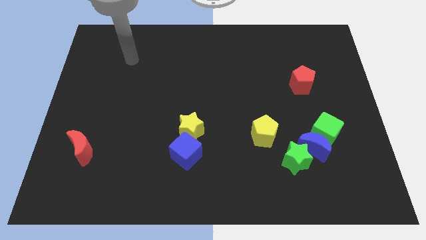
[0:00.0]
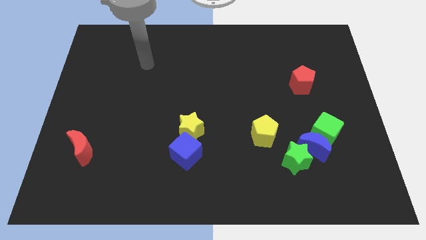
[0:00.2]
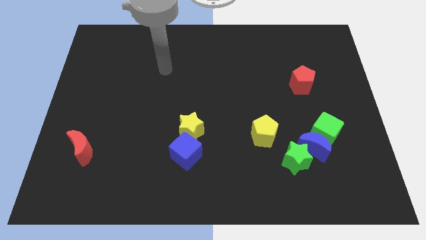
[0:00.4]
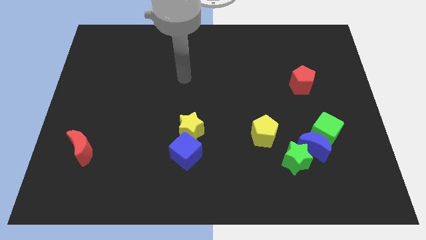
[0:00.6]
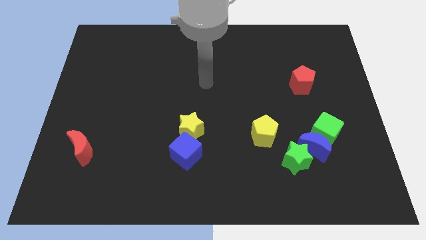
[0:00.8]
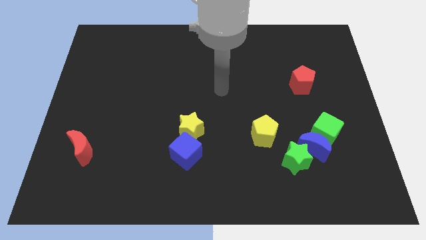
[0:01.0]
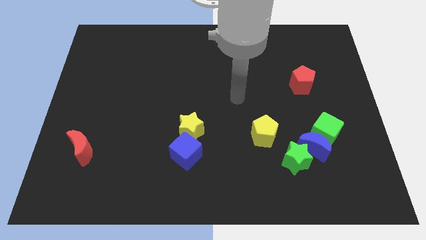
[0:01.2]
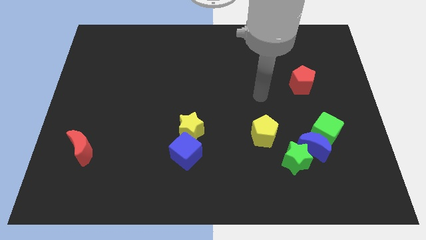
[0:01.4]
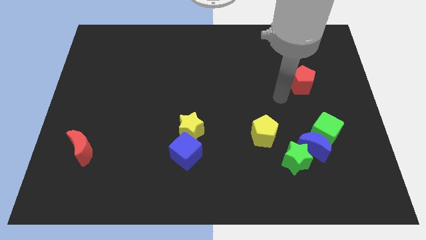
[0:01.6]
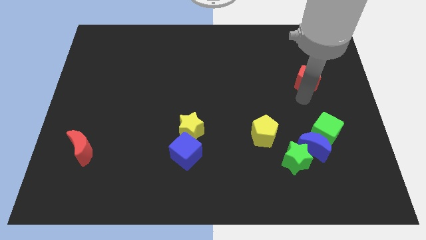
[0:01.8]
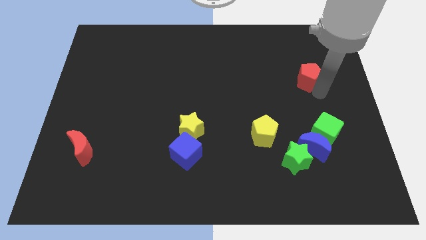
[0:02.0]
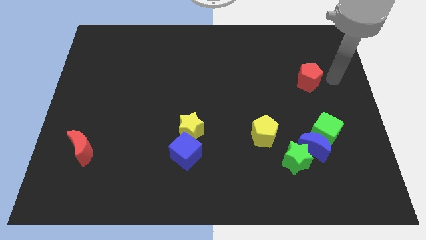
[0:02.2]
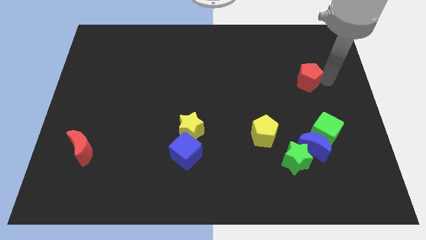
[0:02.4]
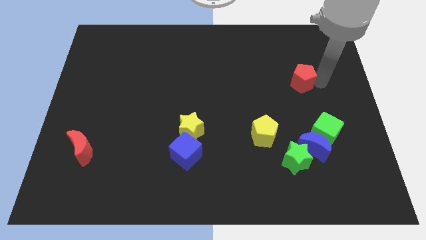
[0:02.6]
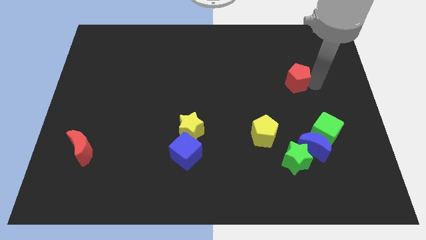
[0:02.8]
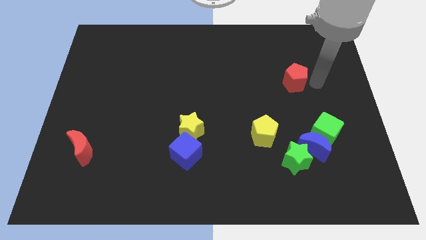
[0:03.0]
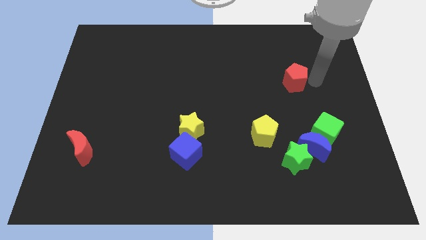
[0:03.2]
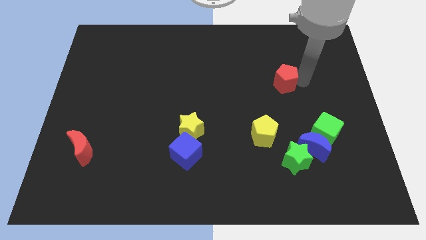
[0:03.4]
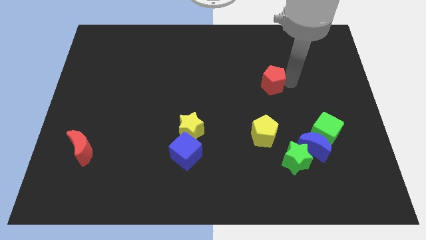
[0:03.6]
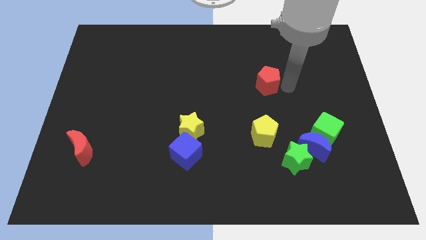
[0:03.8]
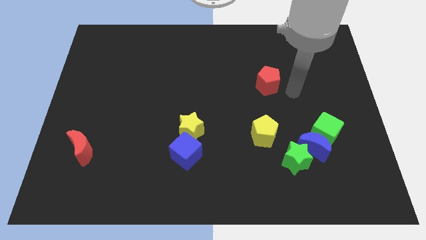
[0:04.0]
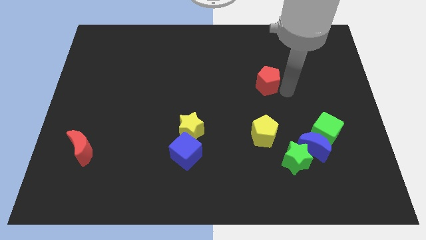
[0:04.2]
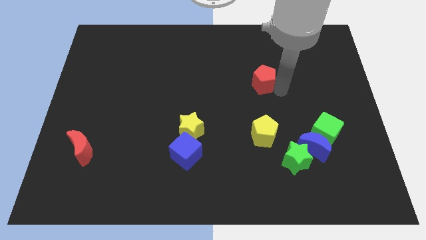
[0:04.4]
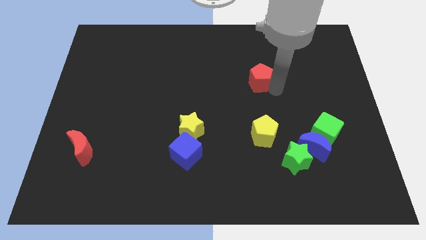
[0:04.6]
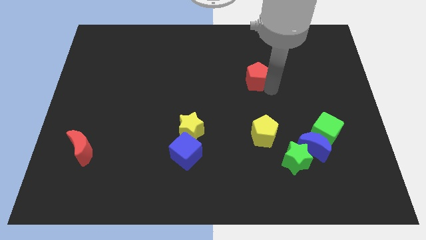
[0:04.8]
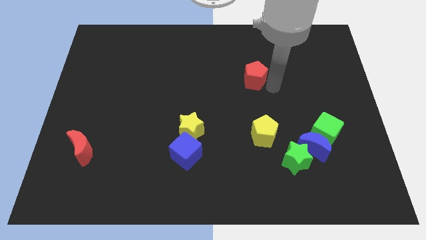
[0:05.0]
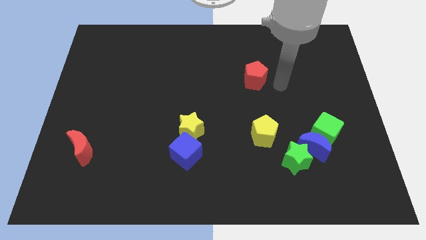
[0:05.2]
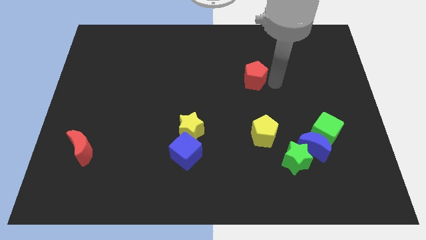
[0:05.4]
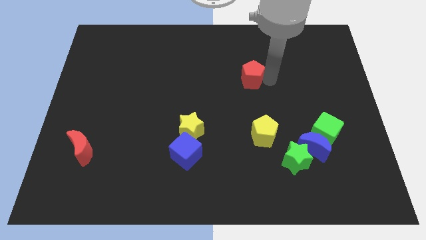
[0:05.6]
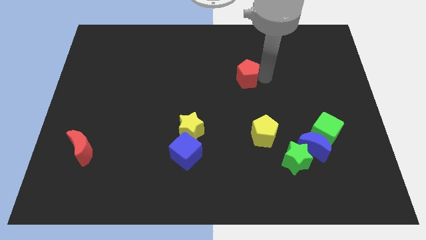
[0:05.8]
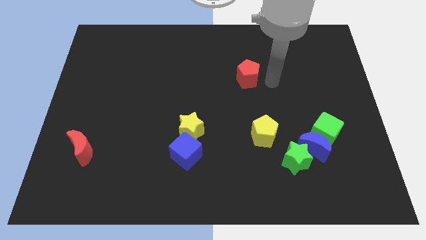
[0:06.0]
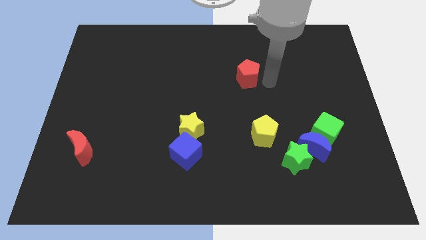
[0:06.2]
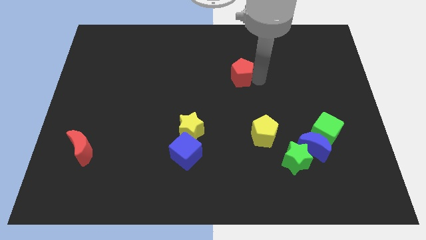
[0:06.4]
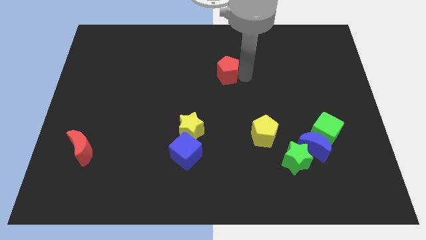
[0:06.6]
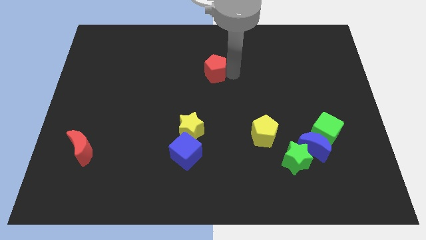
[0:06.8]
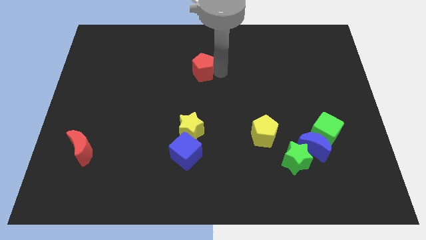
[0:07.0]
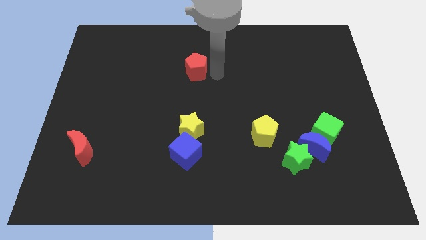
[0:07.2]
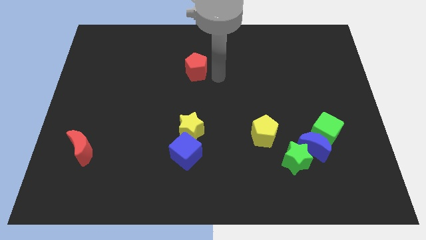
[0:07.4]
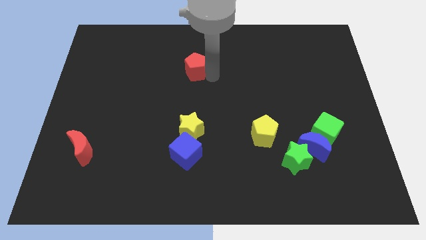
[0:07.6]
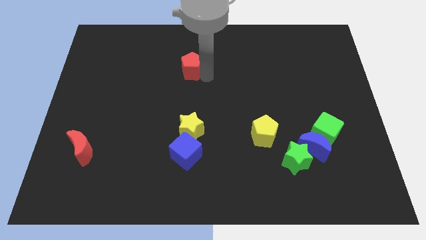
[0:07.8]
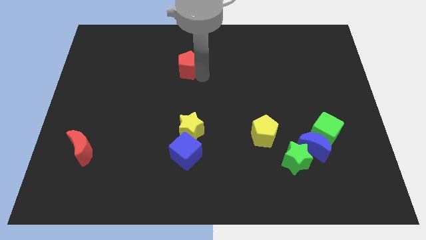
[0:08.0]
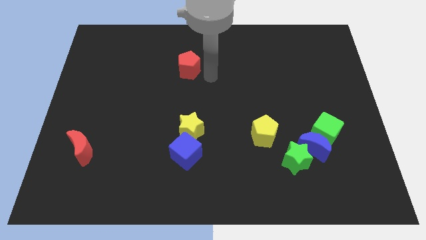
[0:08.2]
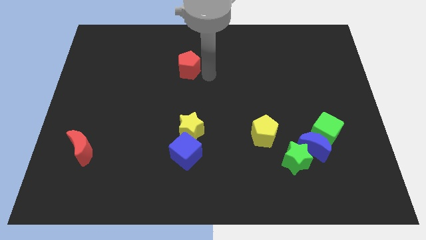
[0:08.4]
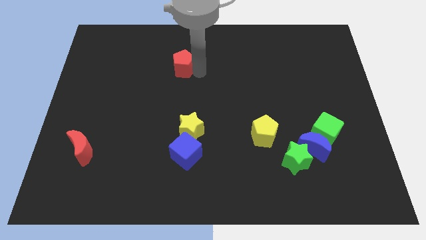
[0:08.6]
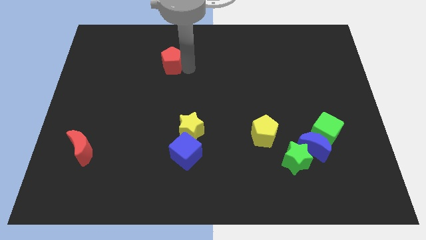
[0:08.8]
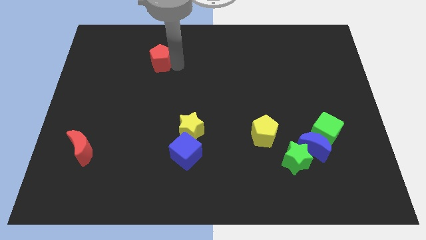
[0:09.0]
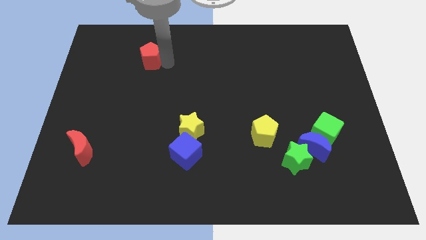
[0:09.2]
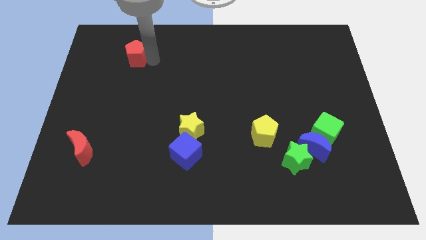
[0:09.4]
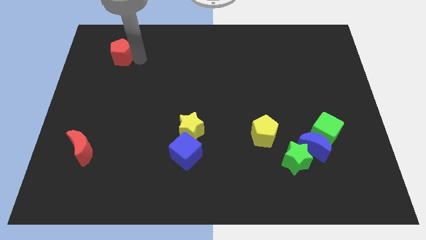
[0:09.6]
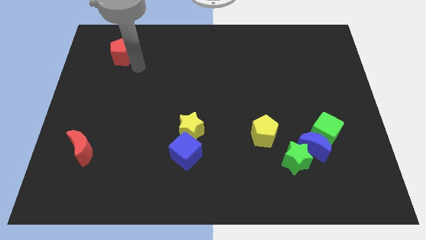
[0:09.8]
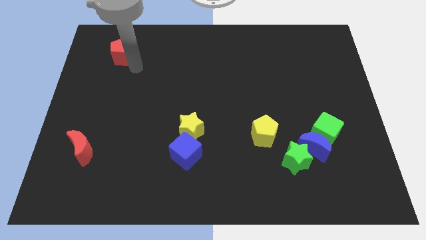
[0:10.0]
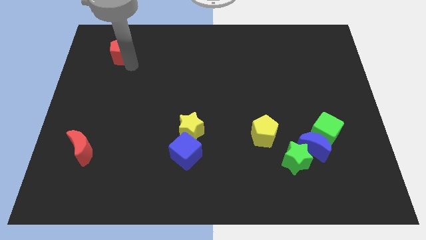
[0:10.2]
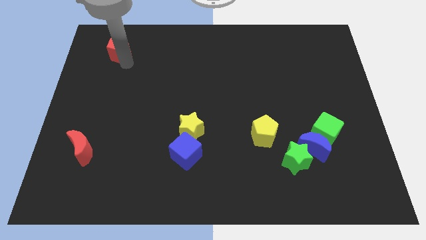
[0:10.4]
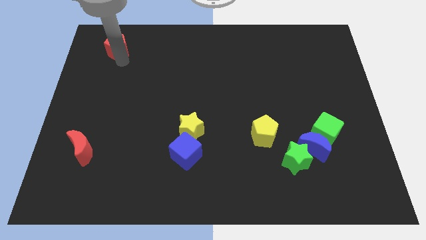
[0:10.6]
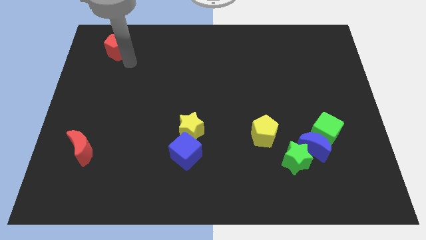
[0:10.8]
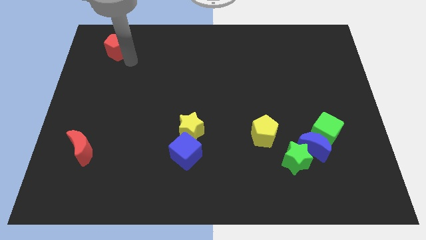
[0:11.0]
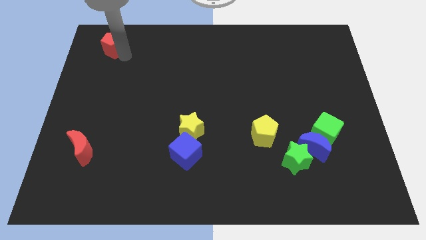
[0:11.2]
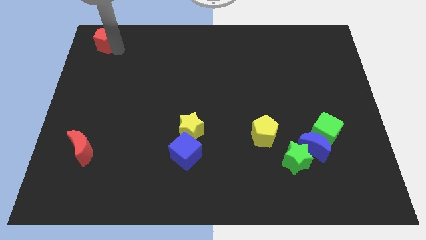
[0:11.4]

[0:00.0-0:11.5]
push the red pentagon to the top left

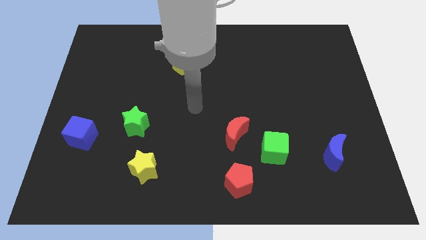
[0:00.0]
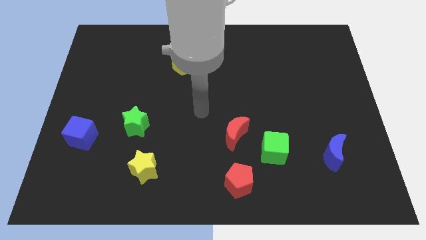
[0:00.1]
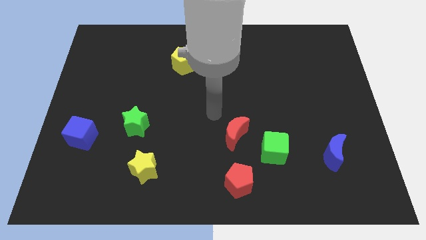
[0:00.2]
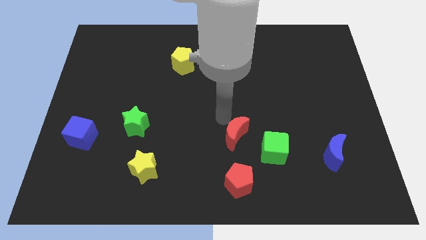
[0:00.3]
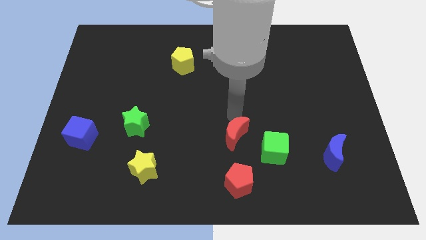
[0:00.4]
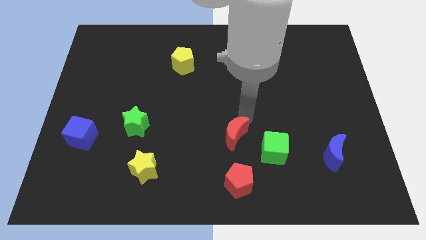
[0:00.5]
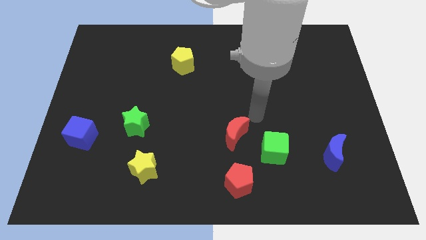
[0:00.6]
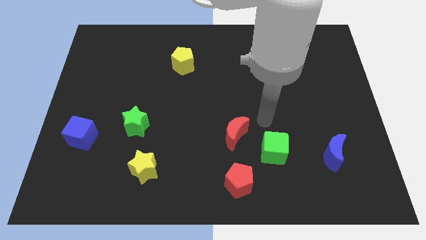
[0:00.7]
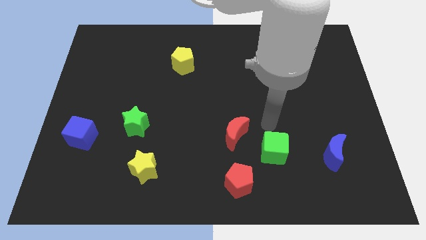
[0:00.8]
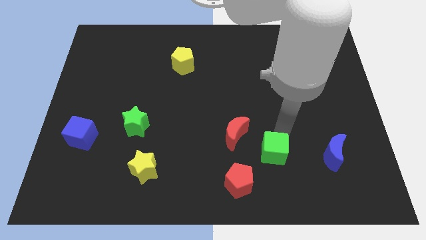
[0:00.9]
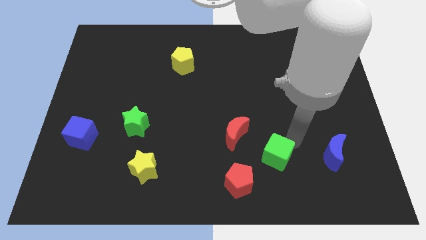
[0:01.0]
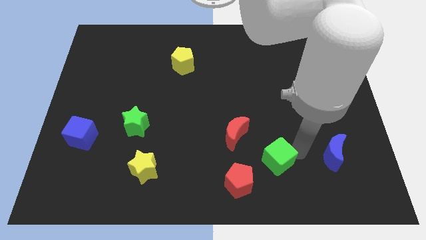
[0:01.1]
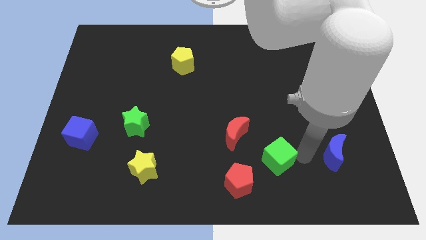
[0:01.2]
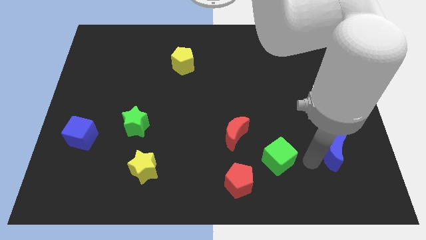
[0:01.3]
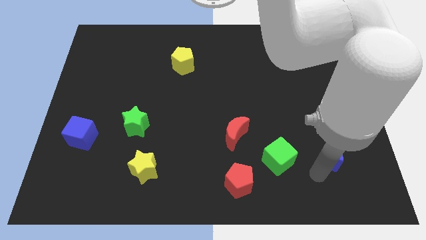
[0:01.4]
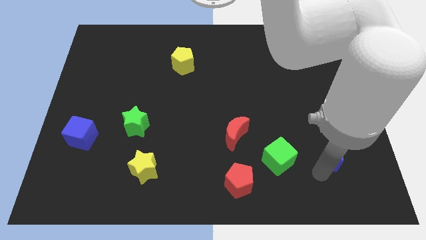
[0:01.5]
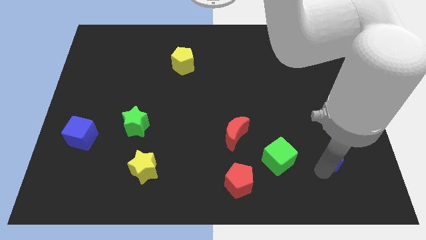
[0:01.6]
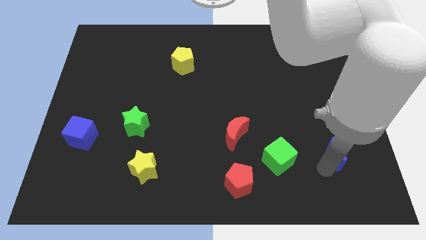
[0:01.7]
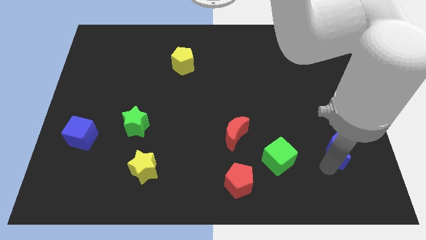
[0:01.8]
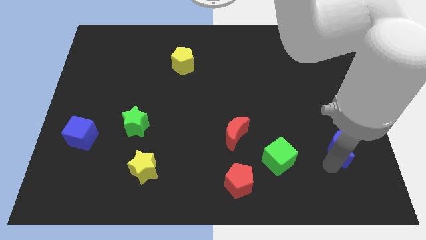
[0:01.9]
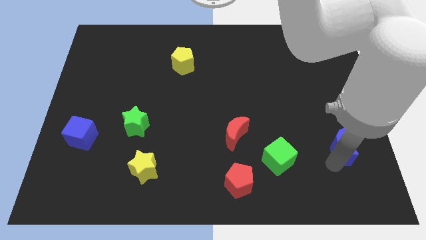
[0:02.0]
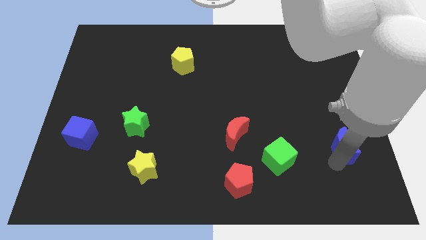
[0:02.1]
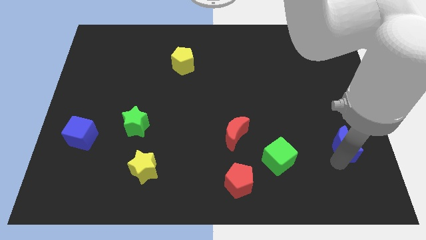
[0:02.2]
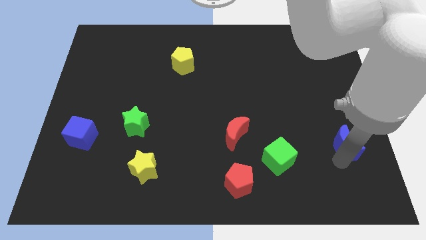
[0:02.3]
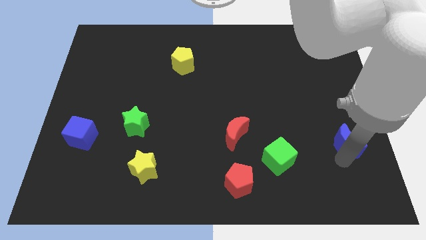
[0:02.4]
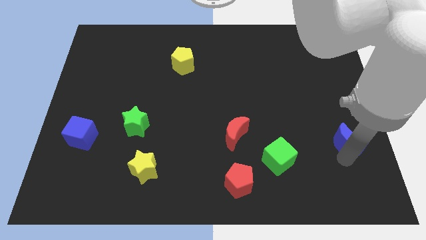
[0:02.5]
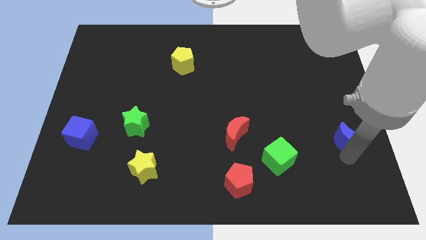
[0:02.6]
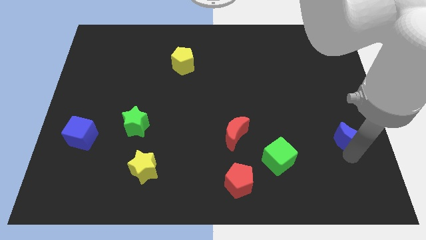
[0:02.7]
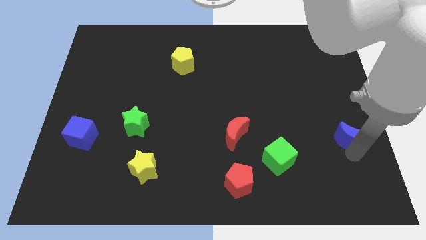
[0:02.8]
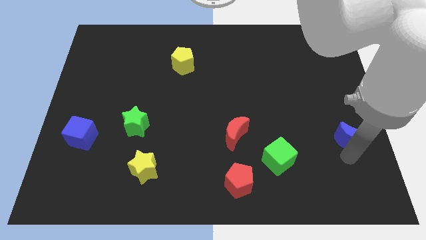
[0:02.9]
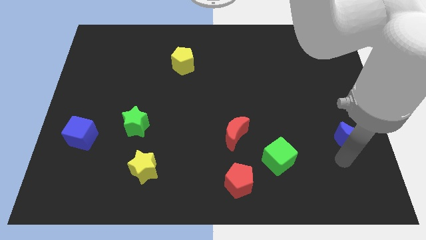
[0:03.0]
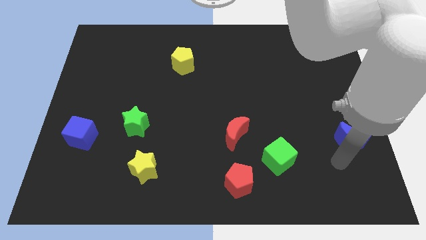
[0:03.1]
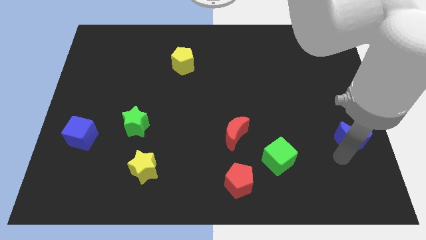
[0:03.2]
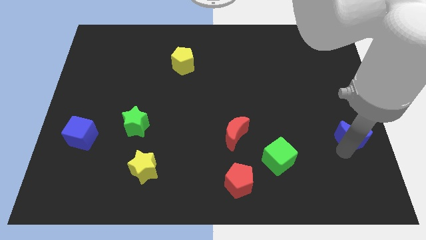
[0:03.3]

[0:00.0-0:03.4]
slide the blue moon to the center right
